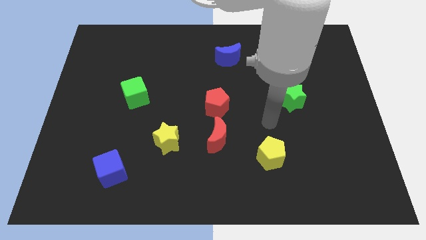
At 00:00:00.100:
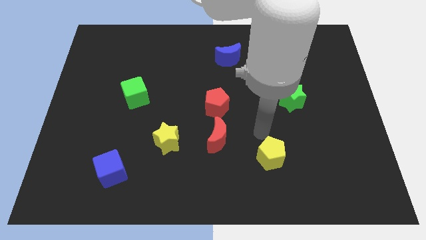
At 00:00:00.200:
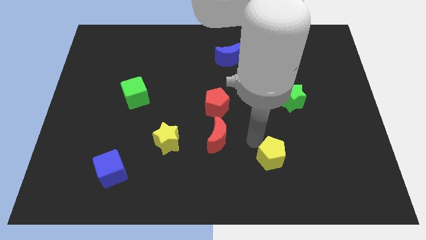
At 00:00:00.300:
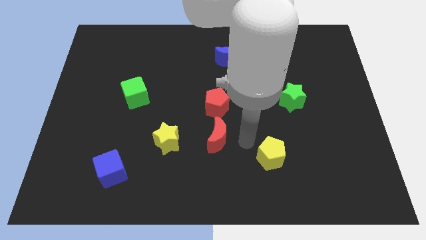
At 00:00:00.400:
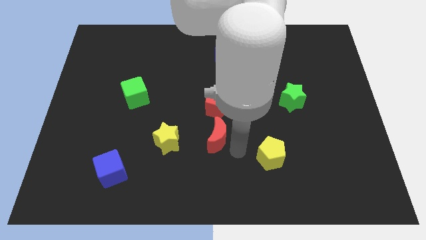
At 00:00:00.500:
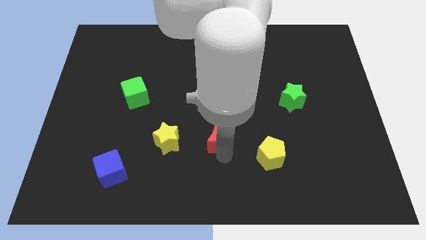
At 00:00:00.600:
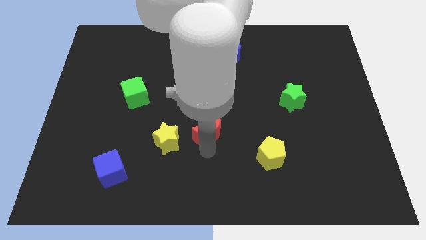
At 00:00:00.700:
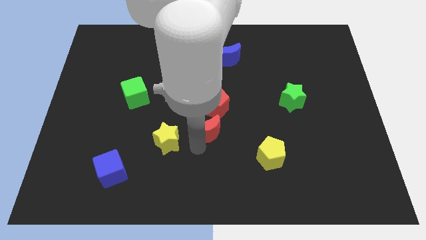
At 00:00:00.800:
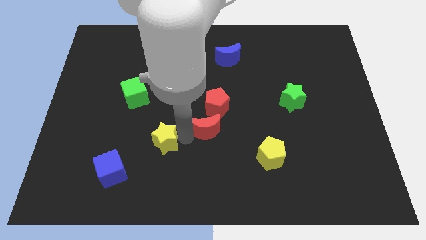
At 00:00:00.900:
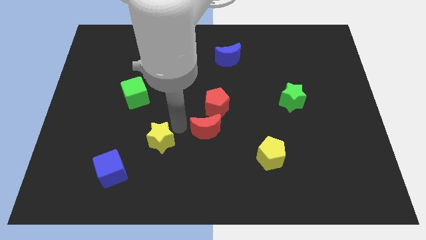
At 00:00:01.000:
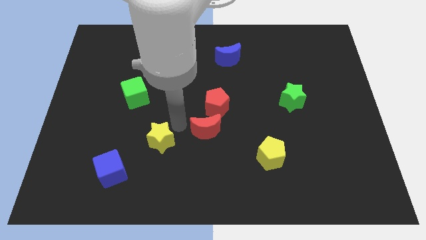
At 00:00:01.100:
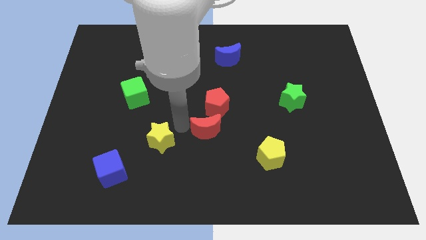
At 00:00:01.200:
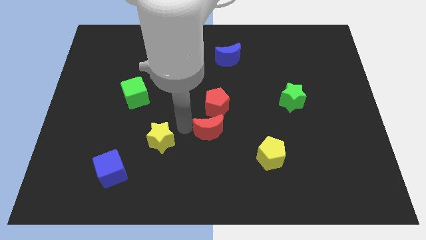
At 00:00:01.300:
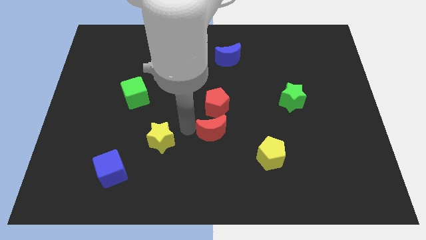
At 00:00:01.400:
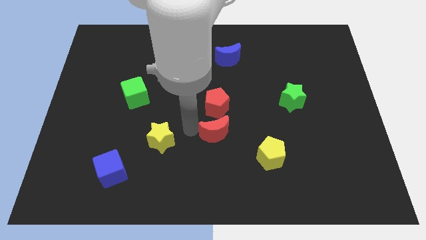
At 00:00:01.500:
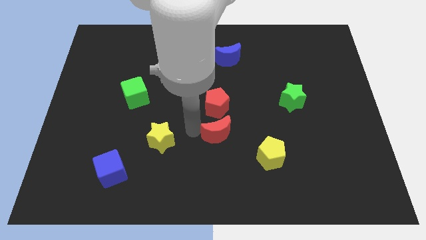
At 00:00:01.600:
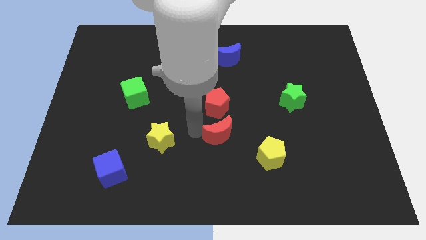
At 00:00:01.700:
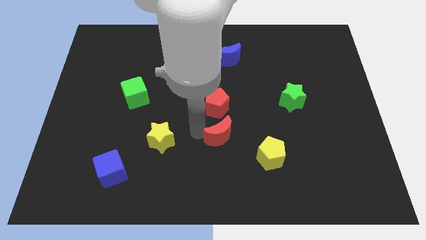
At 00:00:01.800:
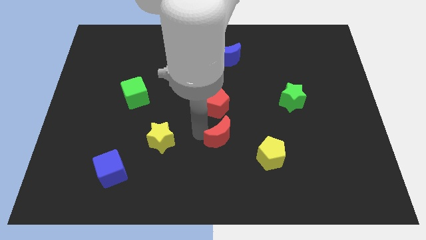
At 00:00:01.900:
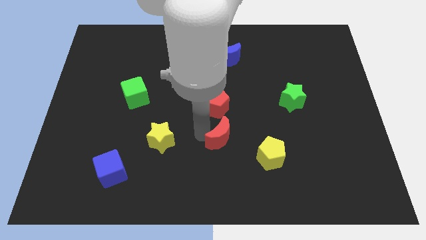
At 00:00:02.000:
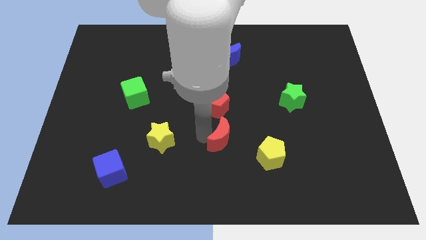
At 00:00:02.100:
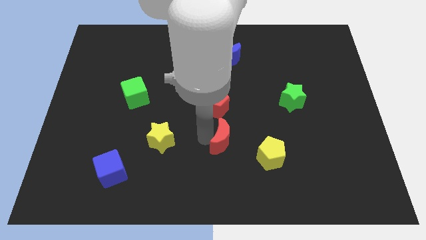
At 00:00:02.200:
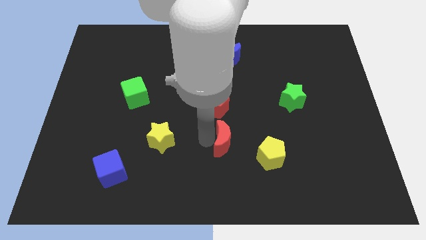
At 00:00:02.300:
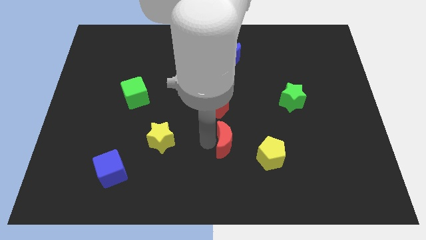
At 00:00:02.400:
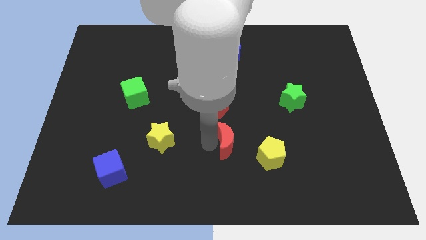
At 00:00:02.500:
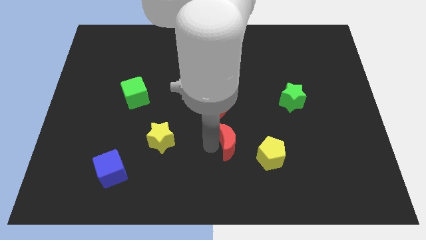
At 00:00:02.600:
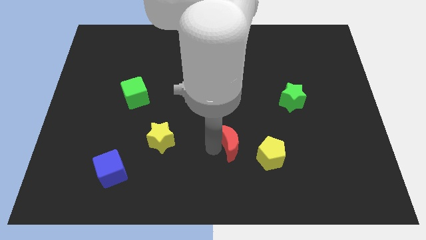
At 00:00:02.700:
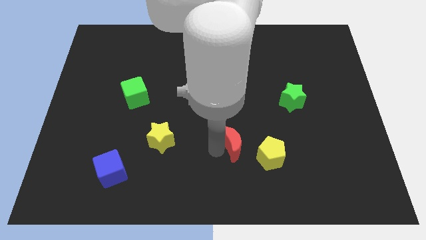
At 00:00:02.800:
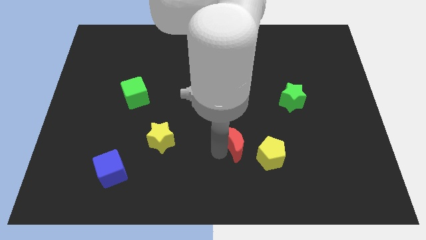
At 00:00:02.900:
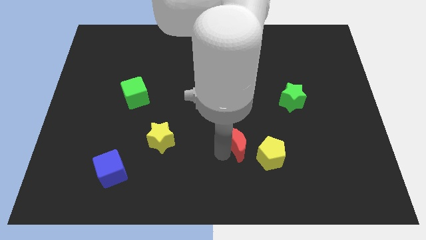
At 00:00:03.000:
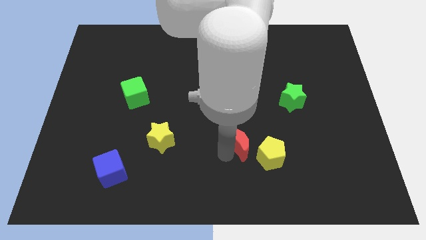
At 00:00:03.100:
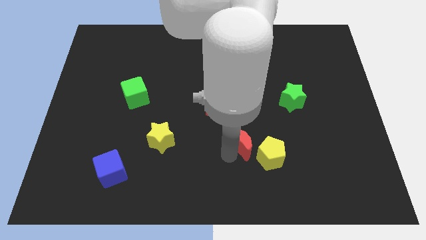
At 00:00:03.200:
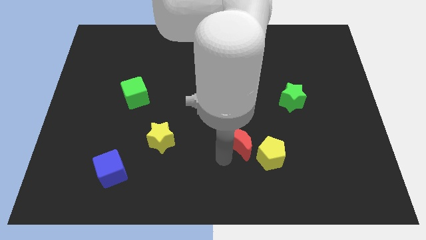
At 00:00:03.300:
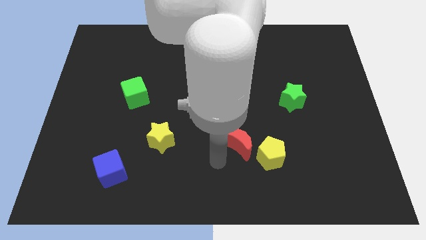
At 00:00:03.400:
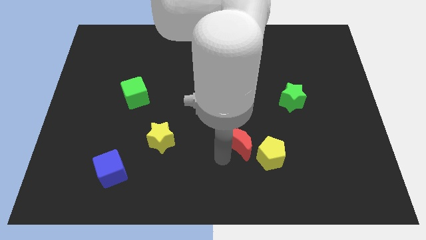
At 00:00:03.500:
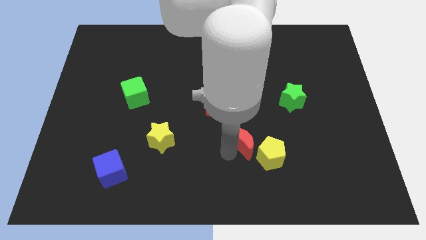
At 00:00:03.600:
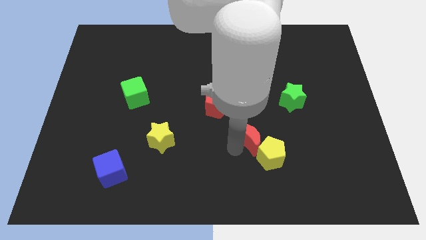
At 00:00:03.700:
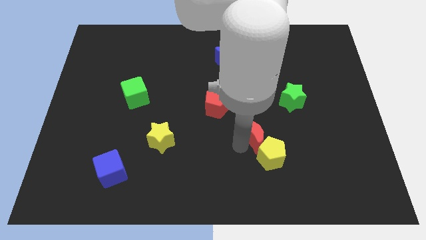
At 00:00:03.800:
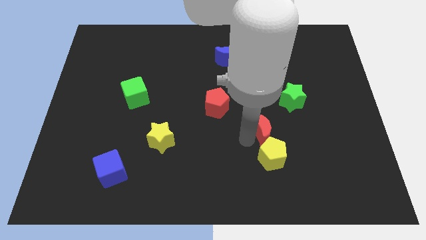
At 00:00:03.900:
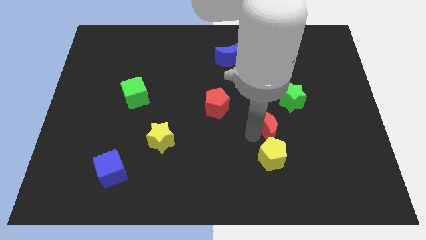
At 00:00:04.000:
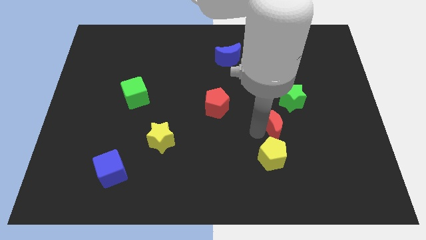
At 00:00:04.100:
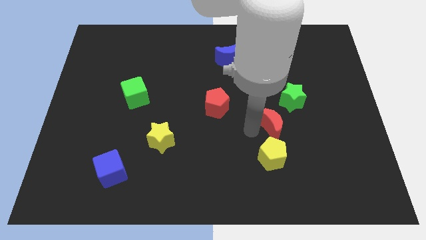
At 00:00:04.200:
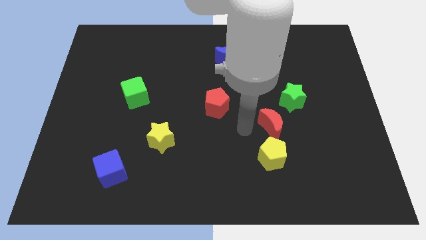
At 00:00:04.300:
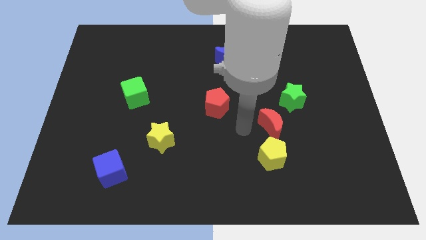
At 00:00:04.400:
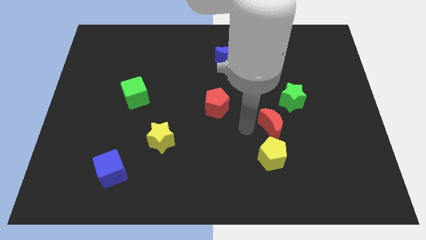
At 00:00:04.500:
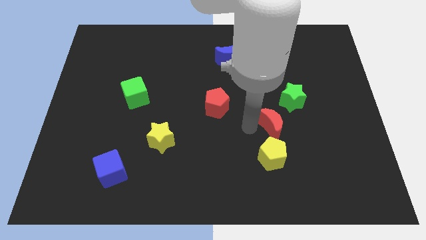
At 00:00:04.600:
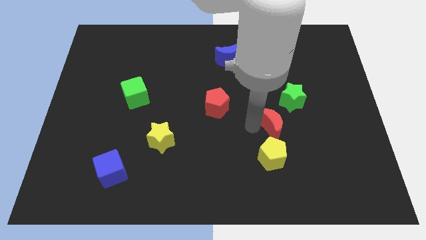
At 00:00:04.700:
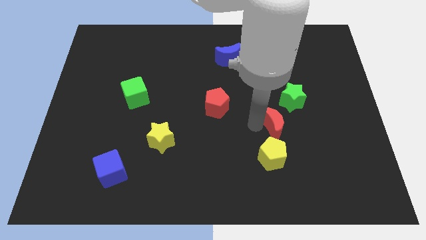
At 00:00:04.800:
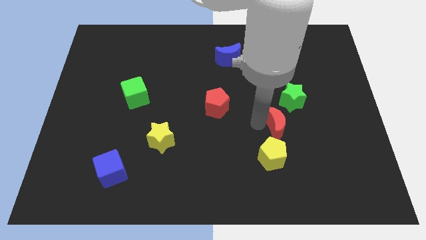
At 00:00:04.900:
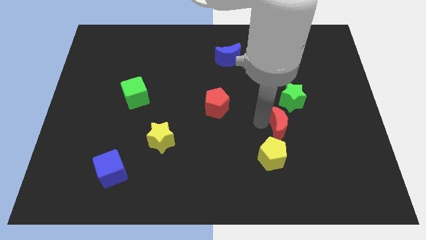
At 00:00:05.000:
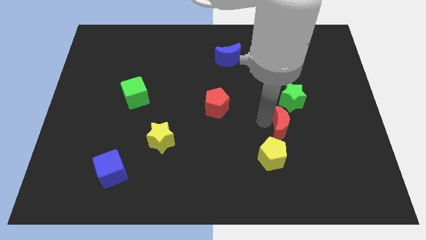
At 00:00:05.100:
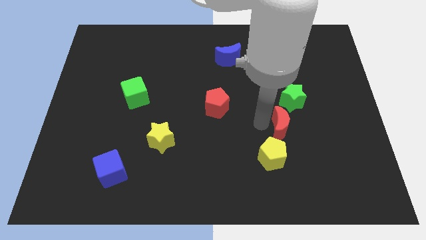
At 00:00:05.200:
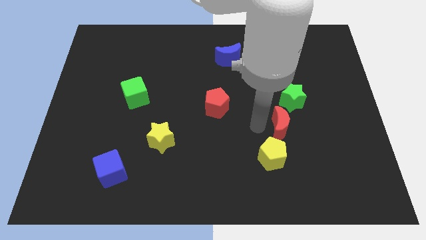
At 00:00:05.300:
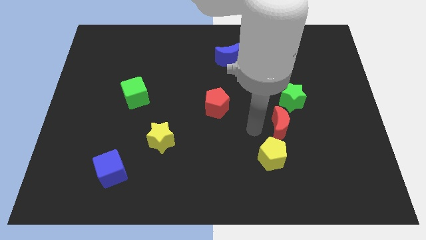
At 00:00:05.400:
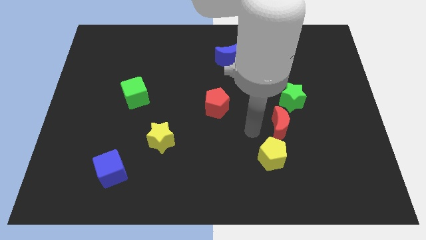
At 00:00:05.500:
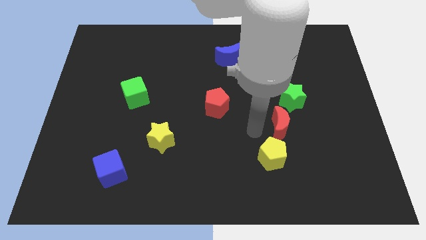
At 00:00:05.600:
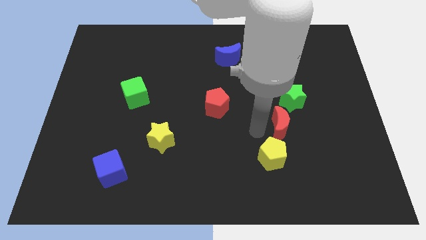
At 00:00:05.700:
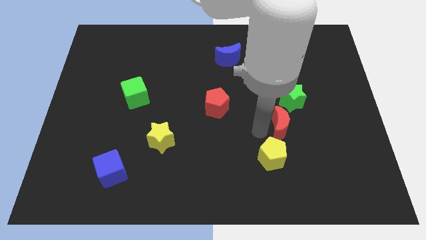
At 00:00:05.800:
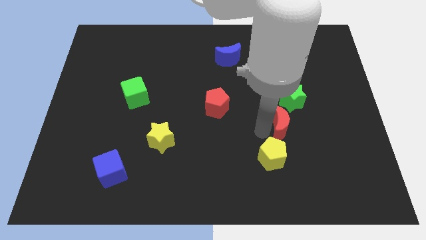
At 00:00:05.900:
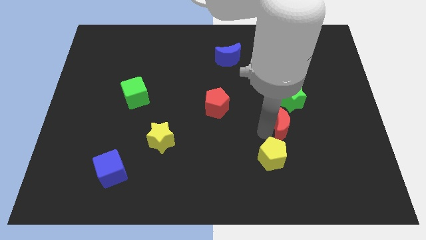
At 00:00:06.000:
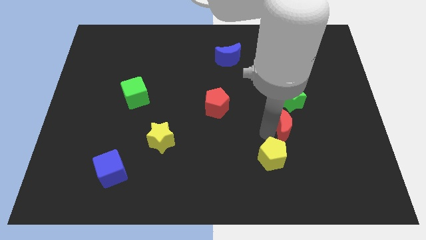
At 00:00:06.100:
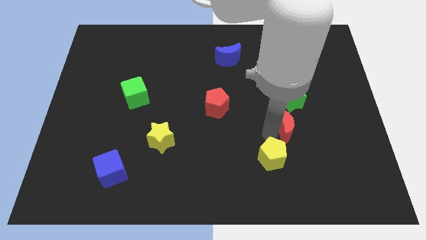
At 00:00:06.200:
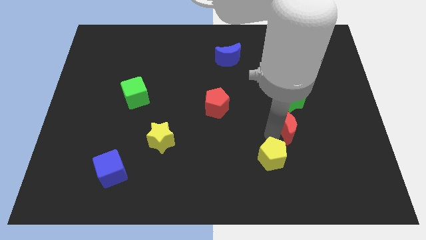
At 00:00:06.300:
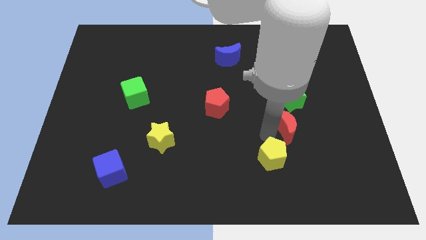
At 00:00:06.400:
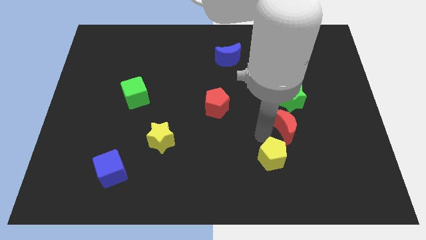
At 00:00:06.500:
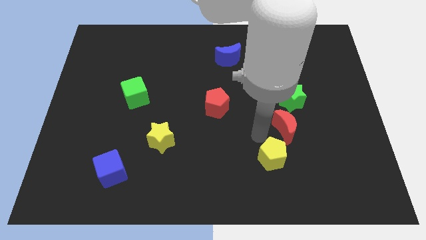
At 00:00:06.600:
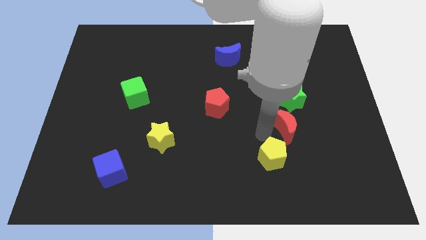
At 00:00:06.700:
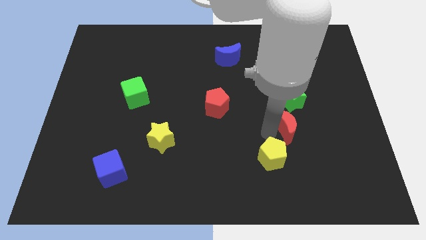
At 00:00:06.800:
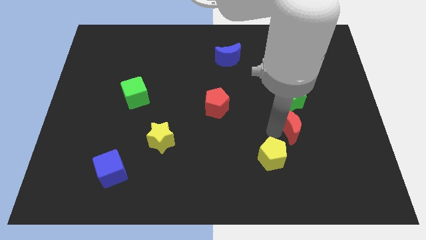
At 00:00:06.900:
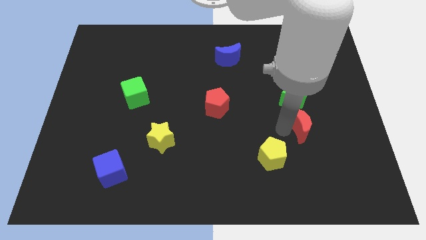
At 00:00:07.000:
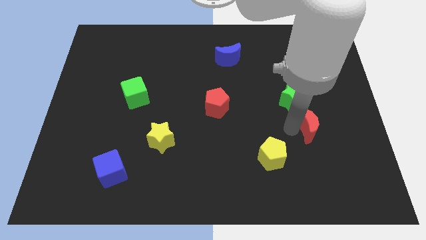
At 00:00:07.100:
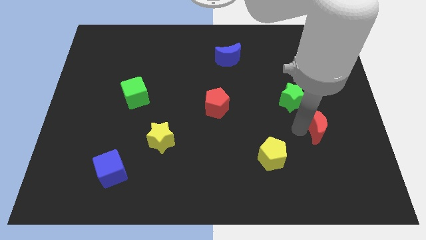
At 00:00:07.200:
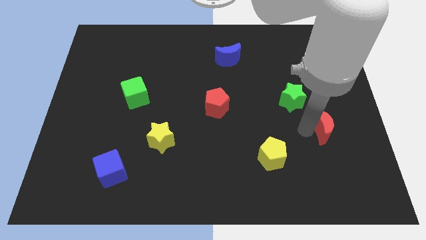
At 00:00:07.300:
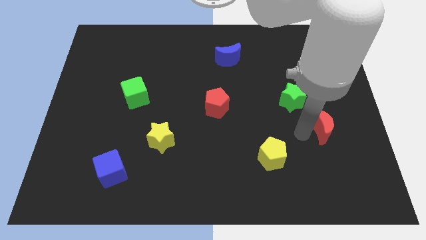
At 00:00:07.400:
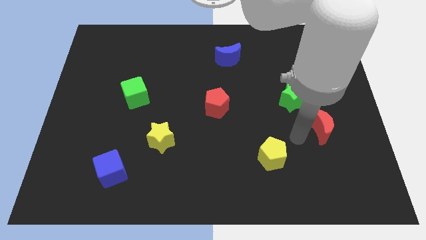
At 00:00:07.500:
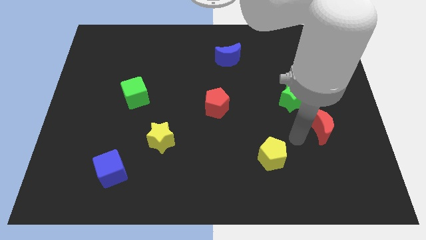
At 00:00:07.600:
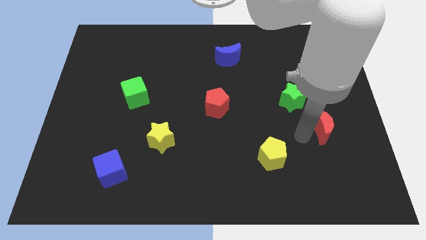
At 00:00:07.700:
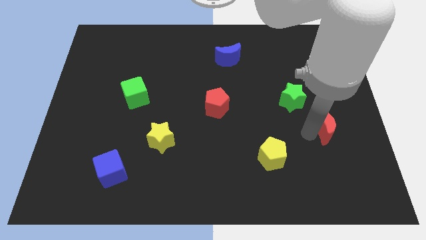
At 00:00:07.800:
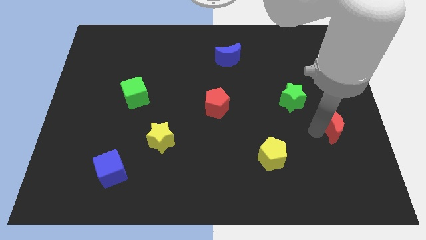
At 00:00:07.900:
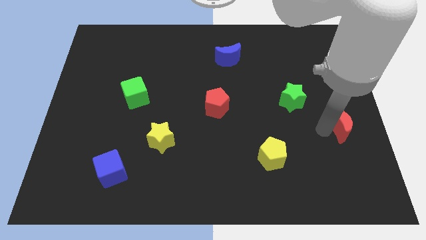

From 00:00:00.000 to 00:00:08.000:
slide the red moon to the right side

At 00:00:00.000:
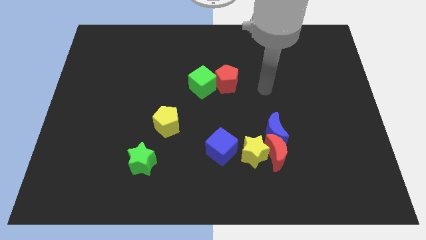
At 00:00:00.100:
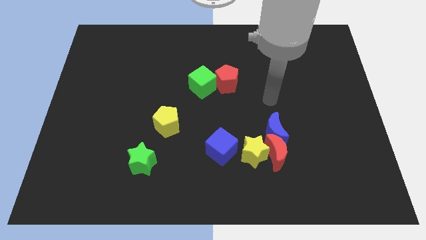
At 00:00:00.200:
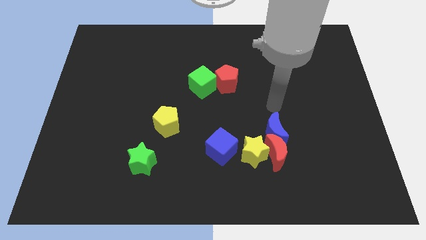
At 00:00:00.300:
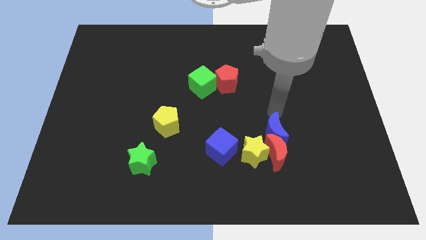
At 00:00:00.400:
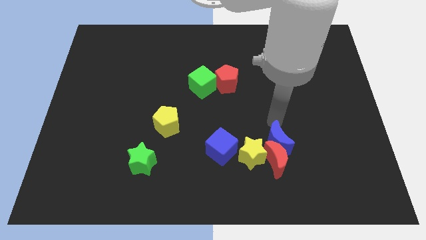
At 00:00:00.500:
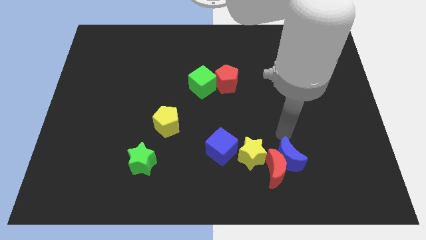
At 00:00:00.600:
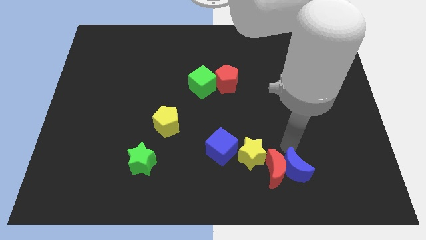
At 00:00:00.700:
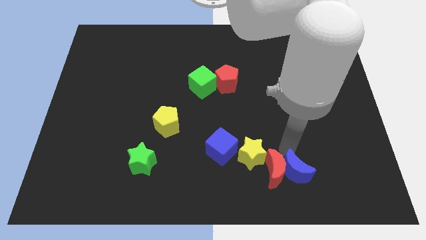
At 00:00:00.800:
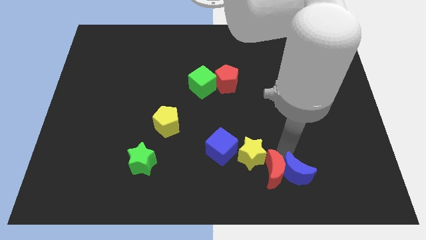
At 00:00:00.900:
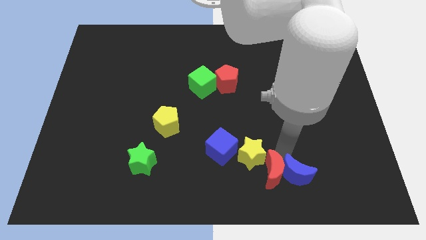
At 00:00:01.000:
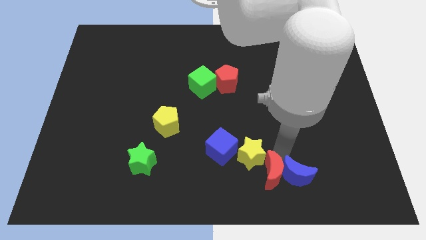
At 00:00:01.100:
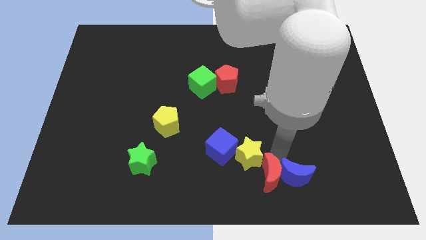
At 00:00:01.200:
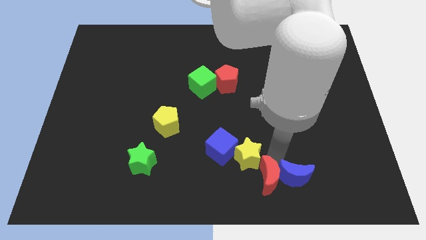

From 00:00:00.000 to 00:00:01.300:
put the red moon to the bottom side
